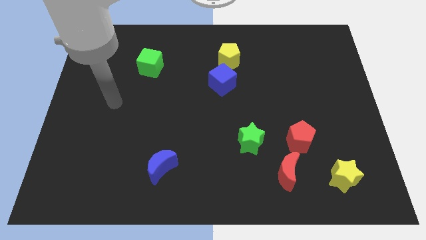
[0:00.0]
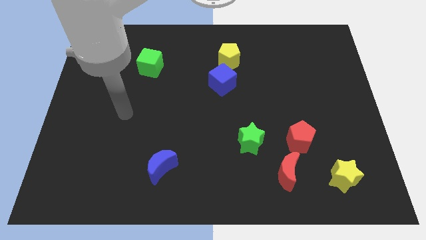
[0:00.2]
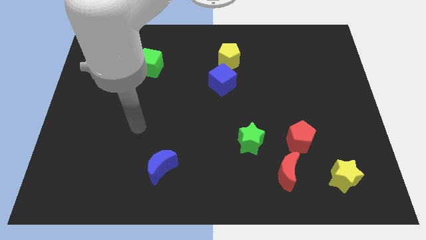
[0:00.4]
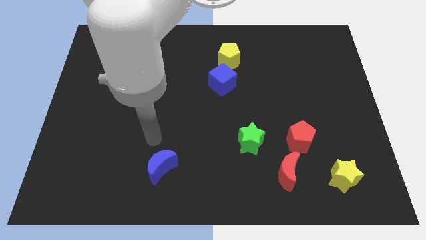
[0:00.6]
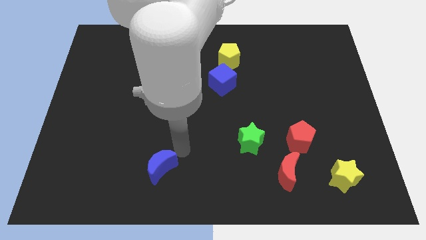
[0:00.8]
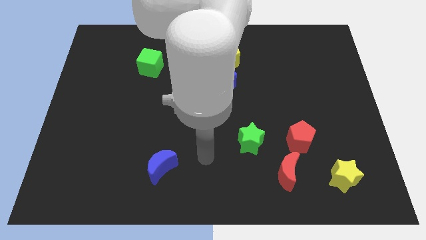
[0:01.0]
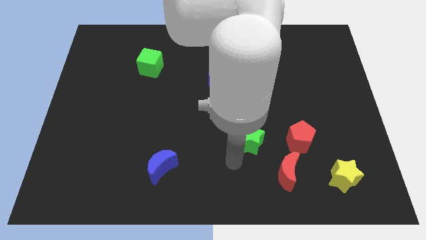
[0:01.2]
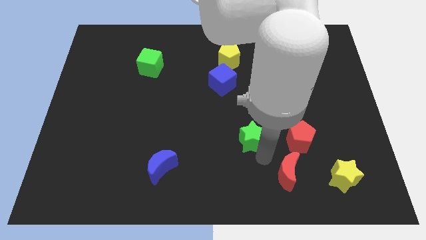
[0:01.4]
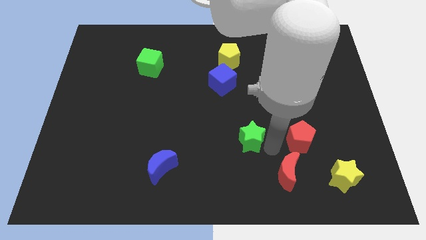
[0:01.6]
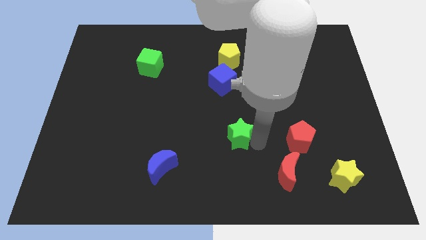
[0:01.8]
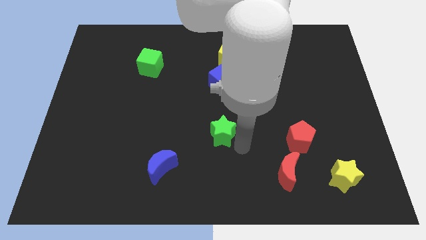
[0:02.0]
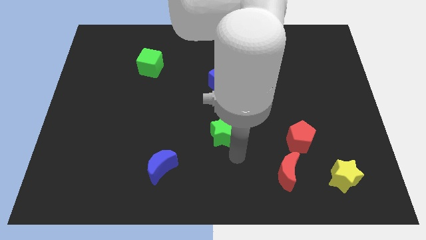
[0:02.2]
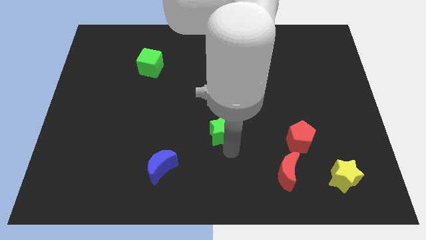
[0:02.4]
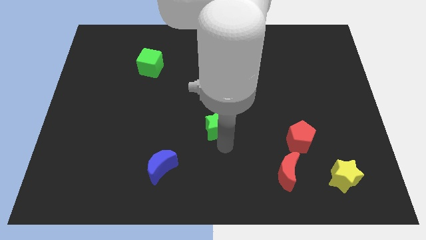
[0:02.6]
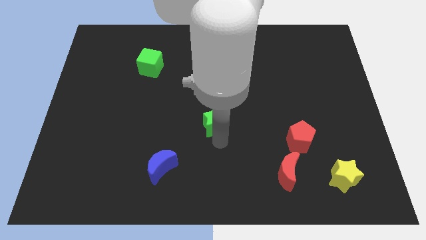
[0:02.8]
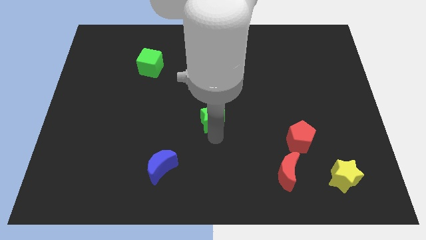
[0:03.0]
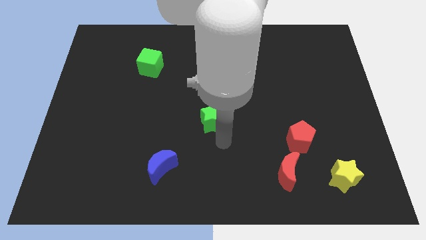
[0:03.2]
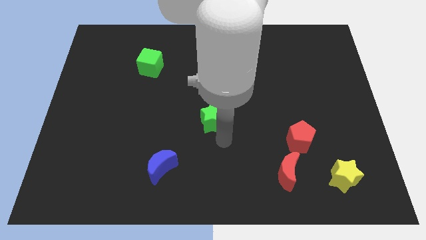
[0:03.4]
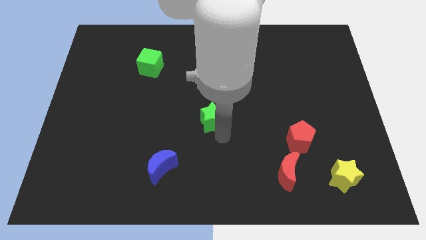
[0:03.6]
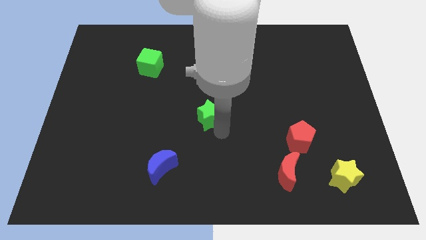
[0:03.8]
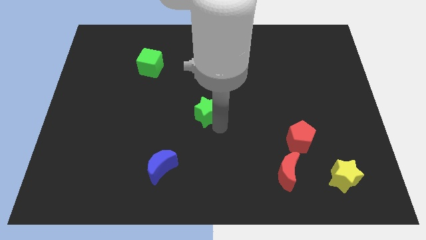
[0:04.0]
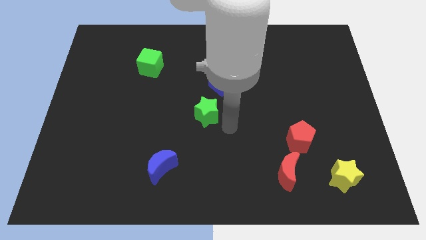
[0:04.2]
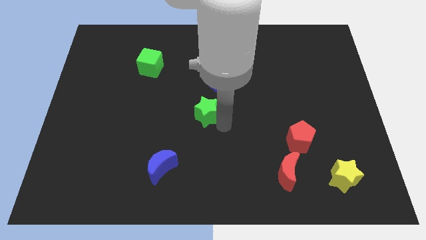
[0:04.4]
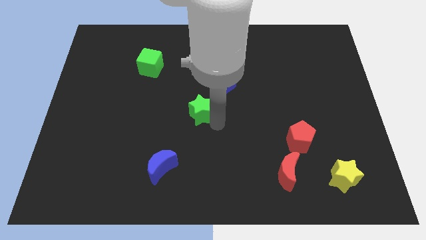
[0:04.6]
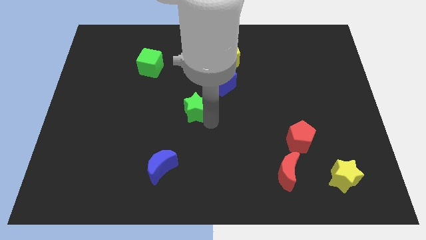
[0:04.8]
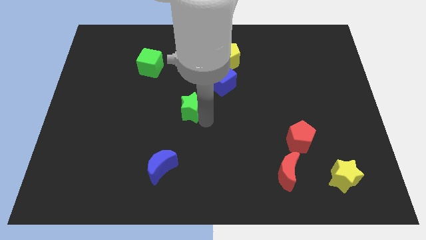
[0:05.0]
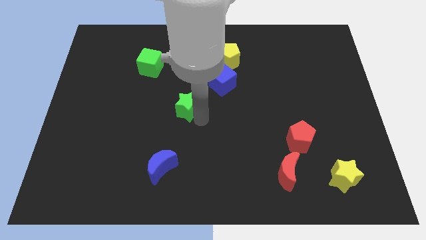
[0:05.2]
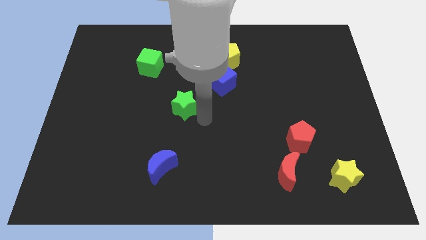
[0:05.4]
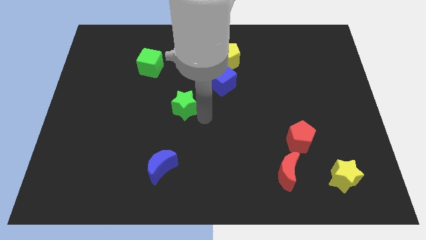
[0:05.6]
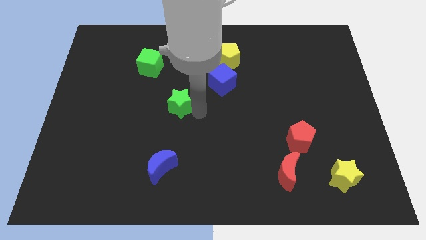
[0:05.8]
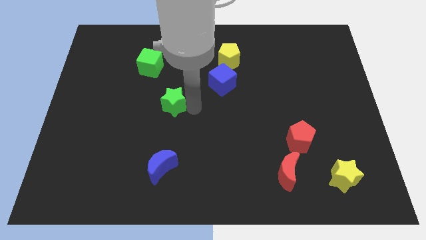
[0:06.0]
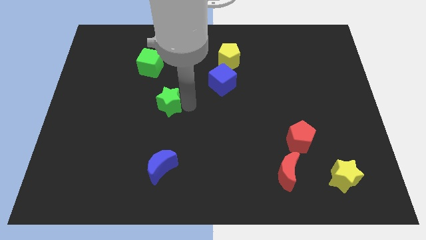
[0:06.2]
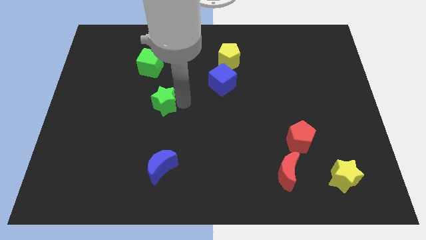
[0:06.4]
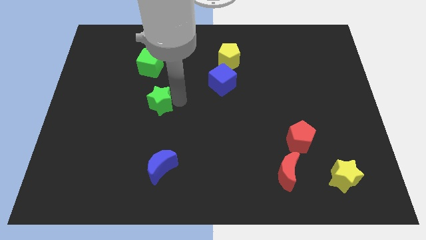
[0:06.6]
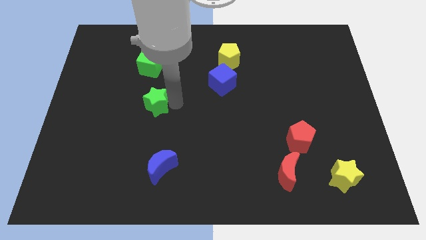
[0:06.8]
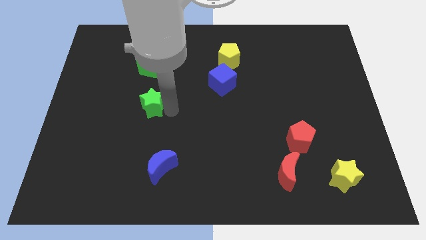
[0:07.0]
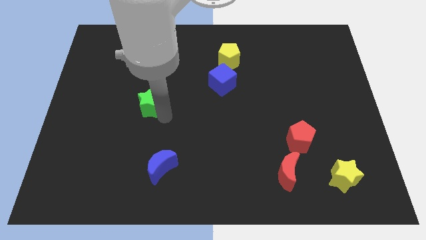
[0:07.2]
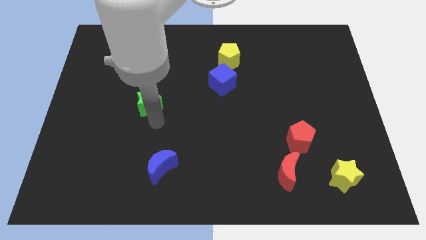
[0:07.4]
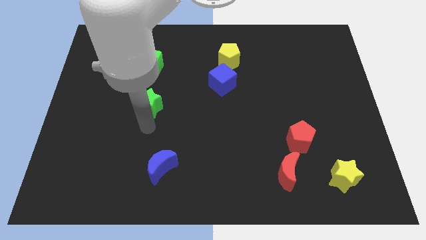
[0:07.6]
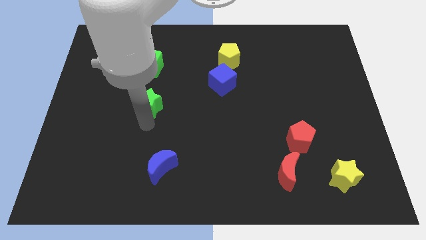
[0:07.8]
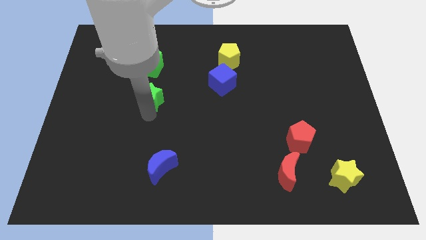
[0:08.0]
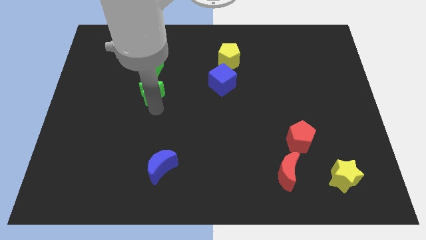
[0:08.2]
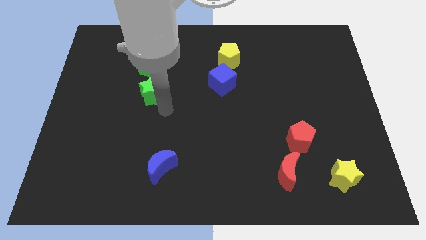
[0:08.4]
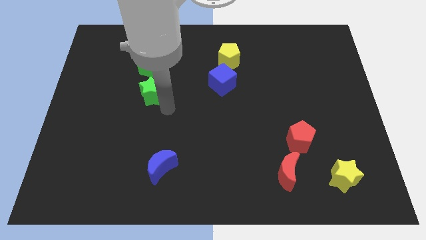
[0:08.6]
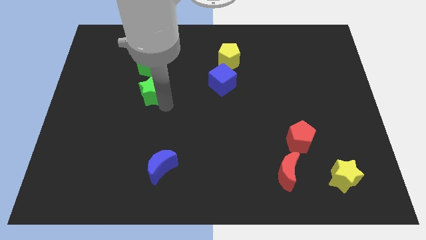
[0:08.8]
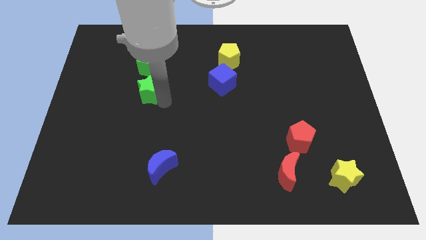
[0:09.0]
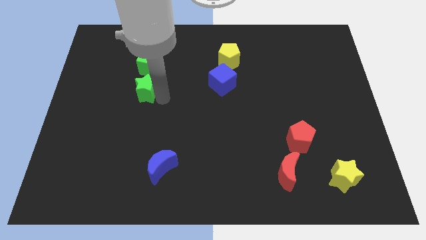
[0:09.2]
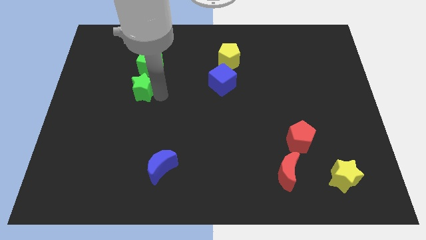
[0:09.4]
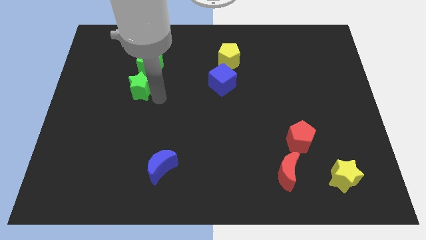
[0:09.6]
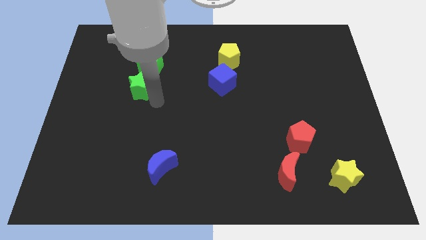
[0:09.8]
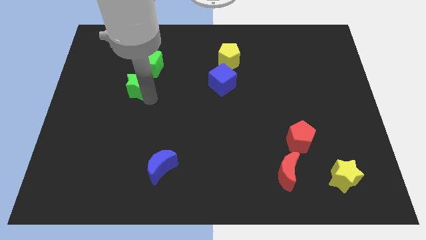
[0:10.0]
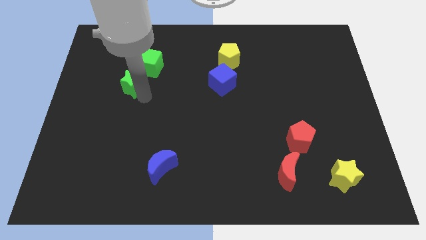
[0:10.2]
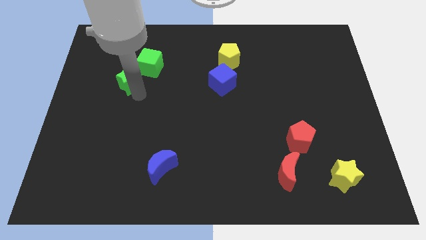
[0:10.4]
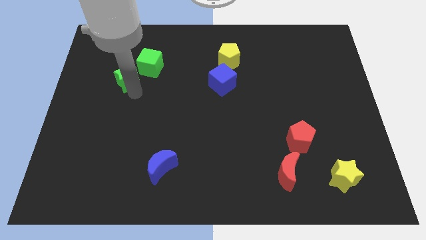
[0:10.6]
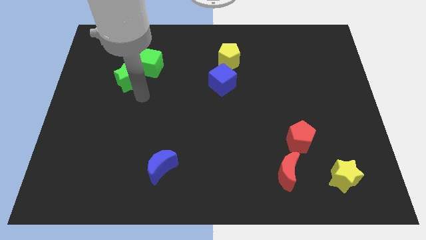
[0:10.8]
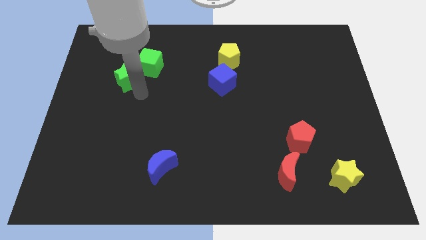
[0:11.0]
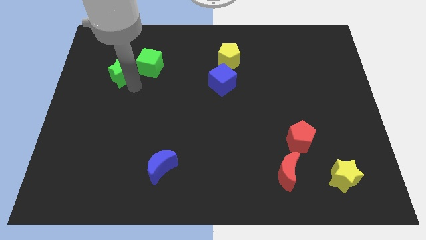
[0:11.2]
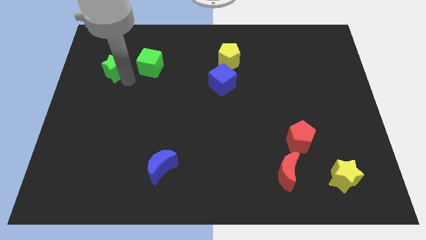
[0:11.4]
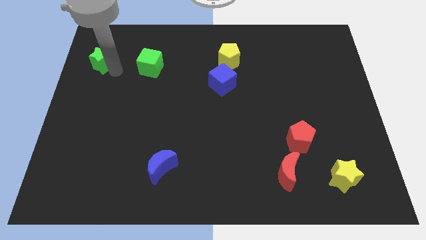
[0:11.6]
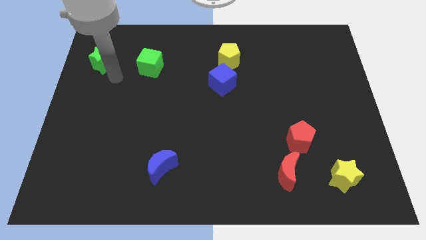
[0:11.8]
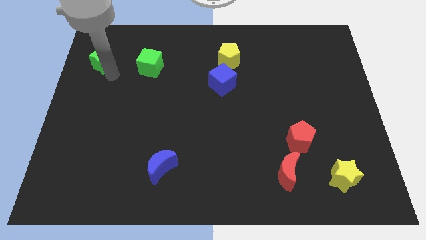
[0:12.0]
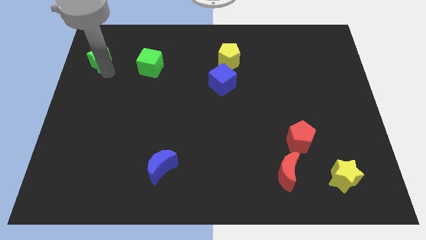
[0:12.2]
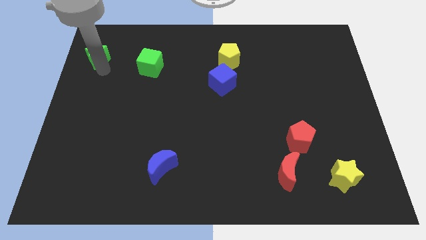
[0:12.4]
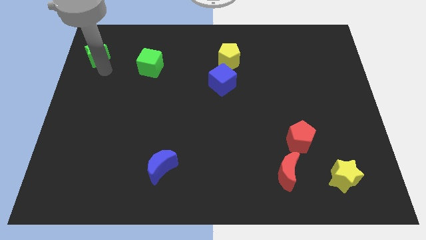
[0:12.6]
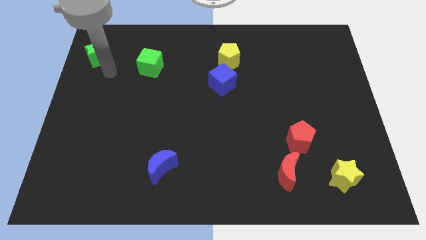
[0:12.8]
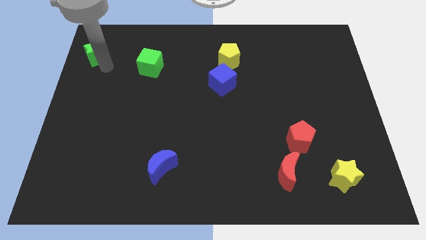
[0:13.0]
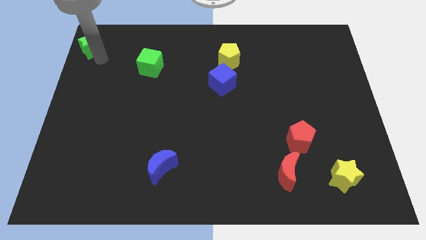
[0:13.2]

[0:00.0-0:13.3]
push the green star to the upper left corner
